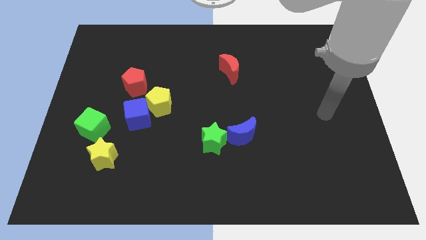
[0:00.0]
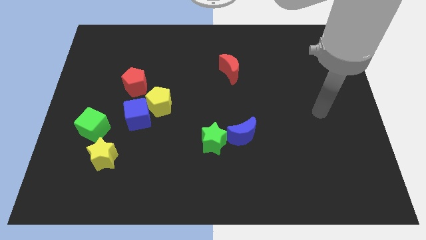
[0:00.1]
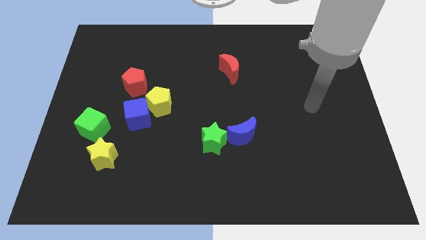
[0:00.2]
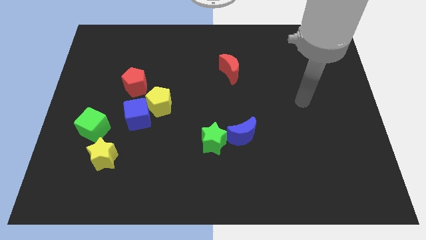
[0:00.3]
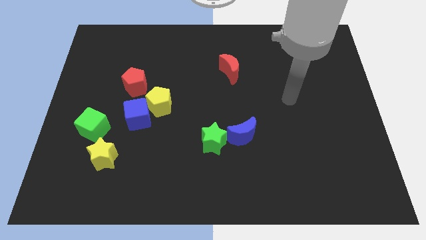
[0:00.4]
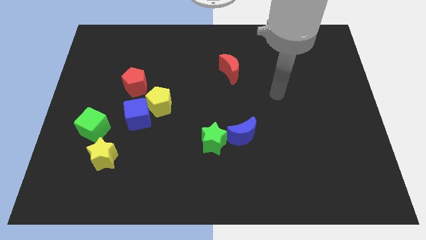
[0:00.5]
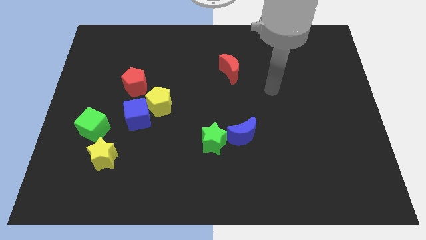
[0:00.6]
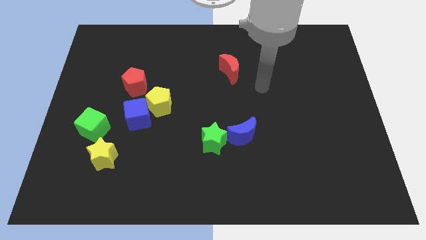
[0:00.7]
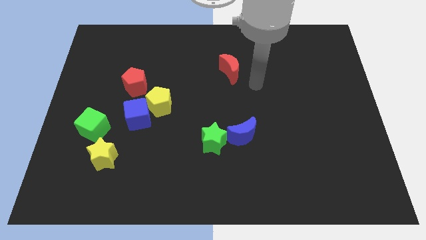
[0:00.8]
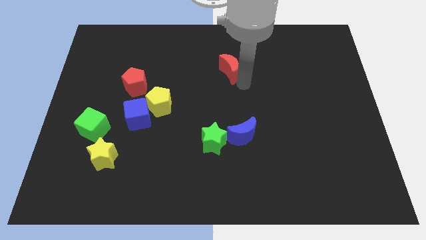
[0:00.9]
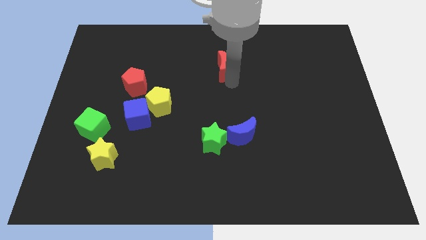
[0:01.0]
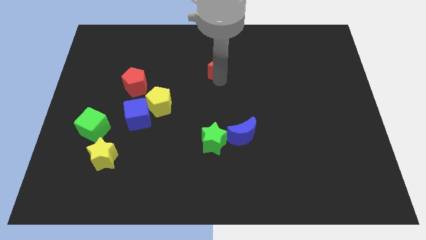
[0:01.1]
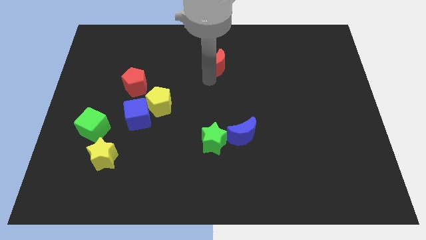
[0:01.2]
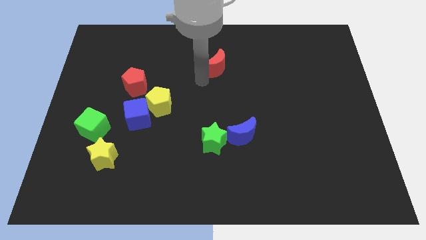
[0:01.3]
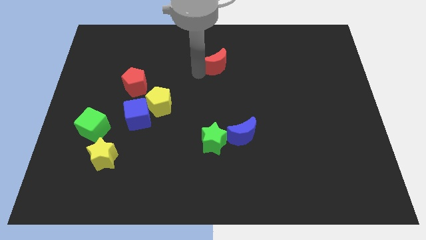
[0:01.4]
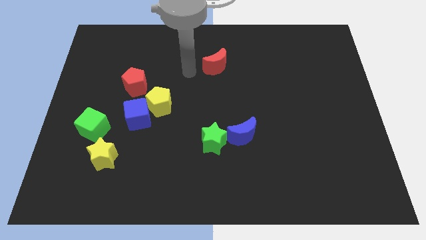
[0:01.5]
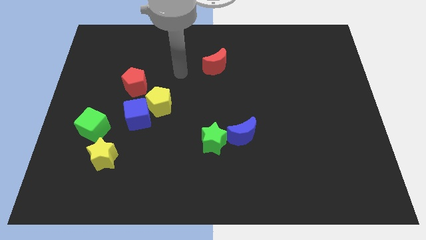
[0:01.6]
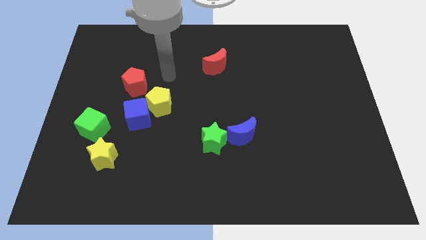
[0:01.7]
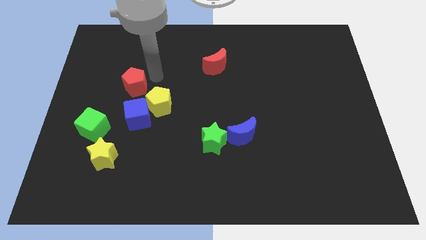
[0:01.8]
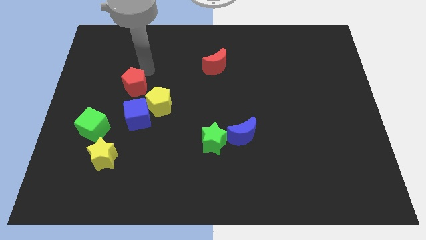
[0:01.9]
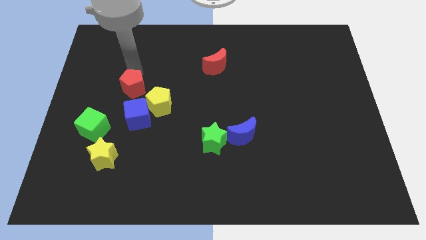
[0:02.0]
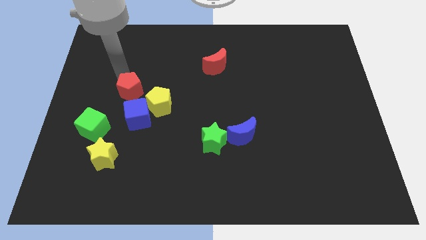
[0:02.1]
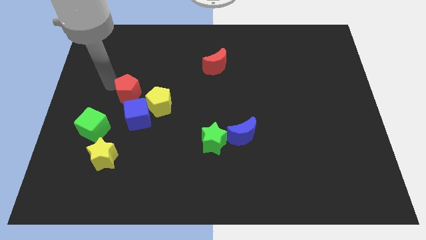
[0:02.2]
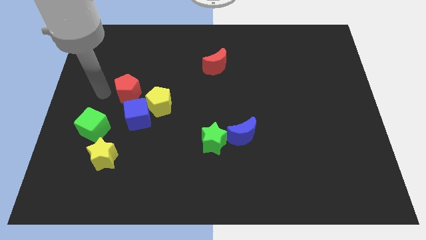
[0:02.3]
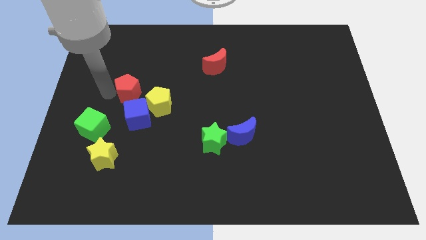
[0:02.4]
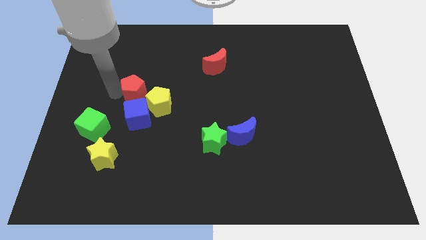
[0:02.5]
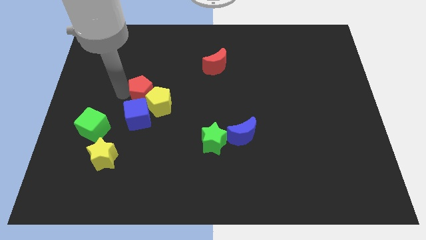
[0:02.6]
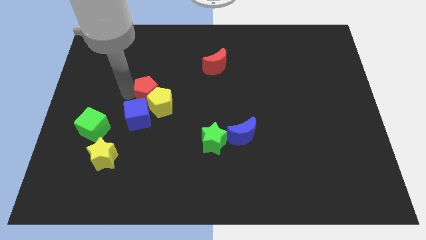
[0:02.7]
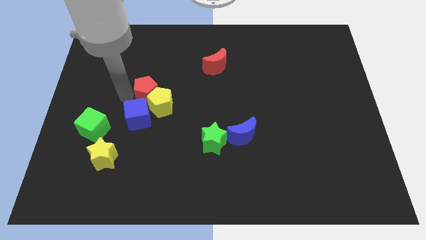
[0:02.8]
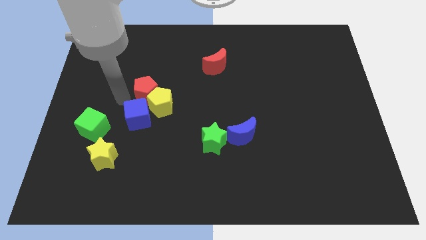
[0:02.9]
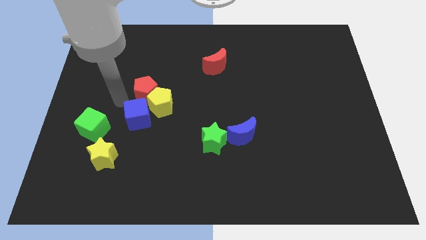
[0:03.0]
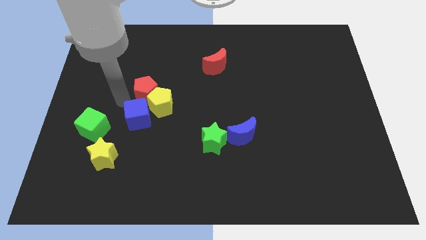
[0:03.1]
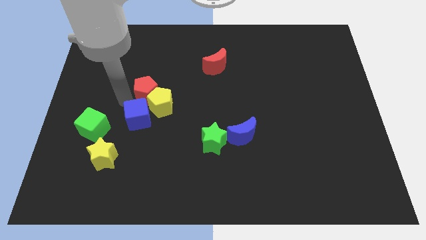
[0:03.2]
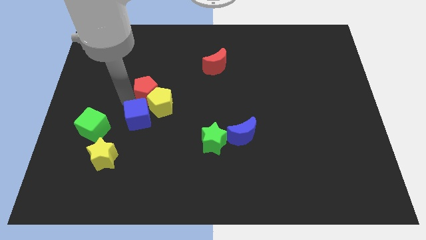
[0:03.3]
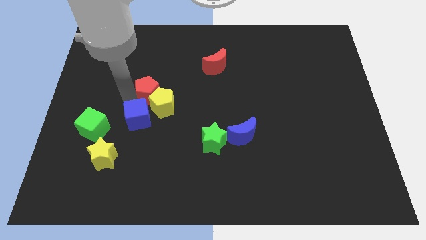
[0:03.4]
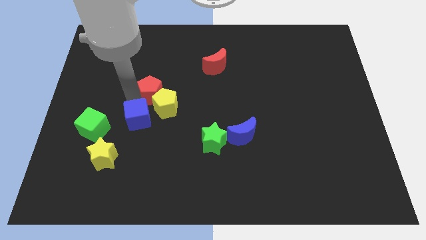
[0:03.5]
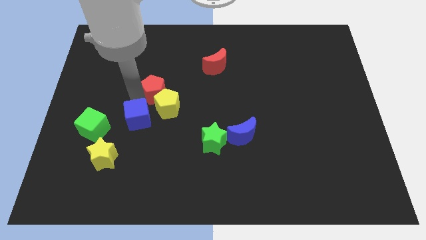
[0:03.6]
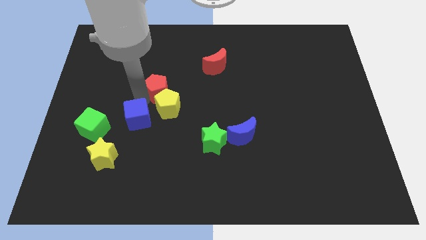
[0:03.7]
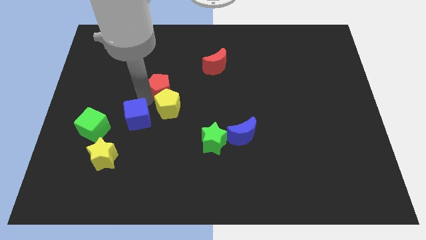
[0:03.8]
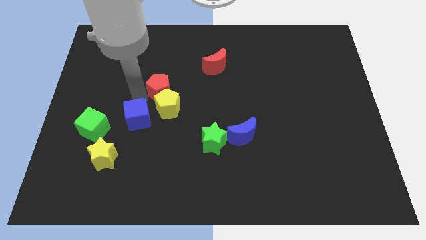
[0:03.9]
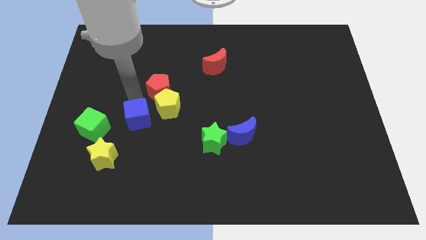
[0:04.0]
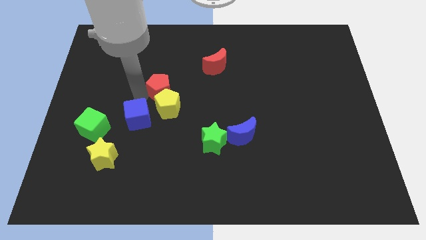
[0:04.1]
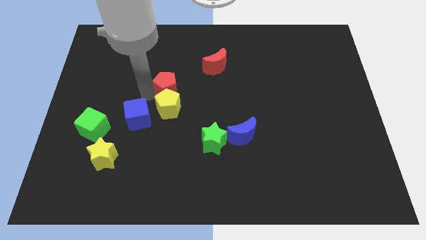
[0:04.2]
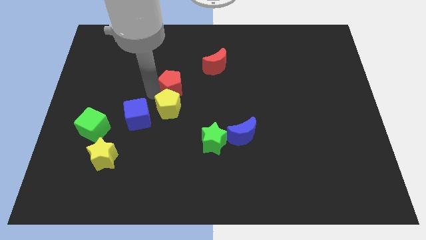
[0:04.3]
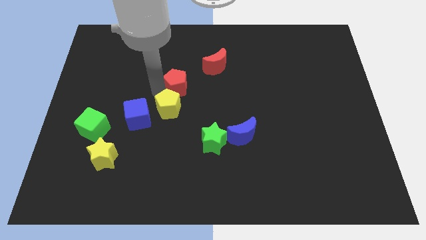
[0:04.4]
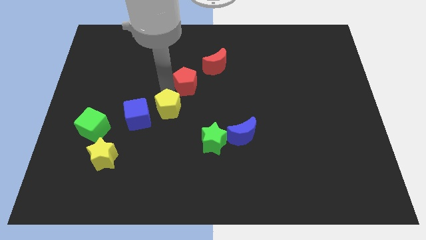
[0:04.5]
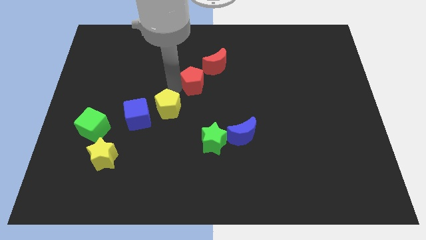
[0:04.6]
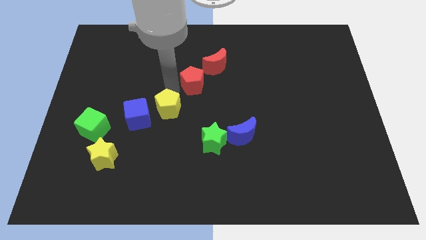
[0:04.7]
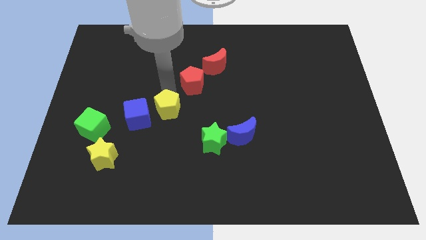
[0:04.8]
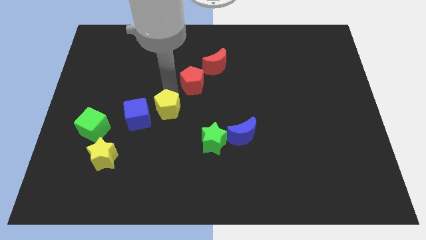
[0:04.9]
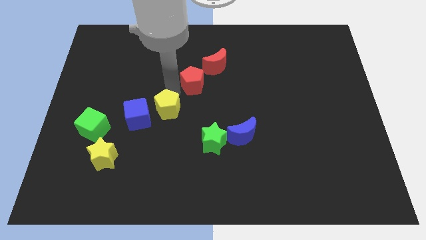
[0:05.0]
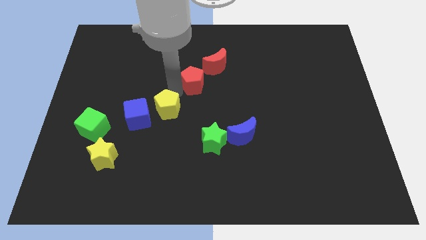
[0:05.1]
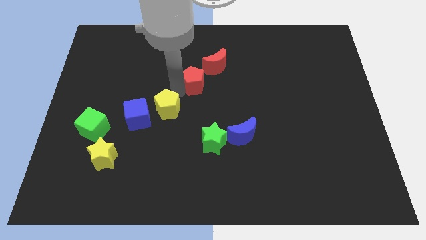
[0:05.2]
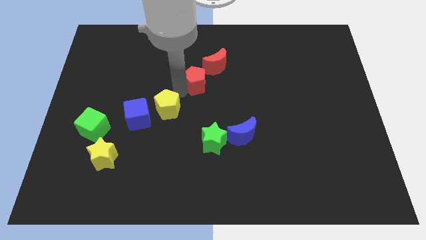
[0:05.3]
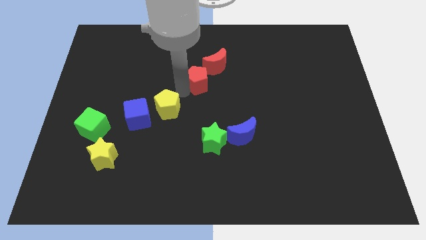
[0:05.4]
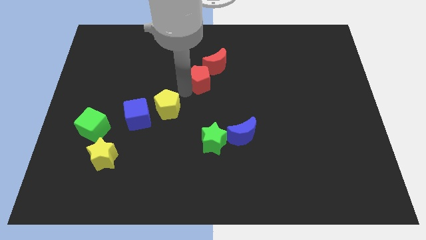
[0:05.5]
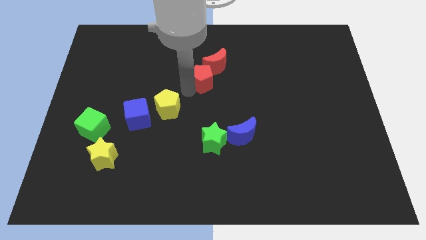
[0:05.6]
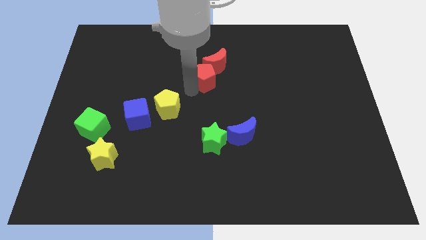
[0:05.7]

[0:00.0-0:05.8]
move the red pentagon towards the red moon

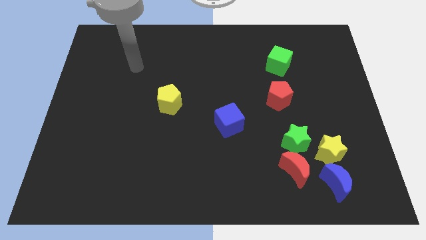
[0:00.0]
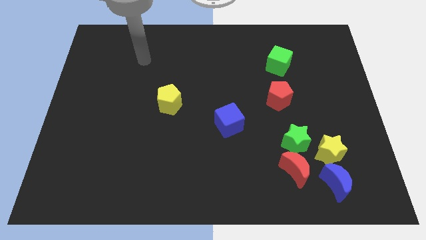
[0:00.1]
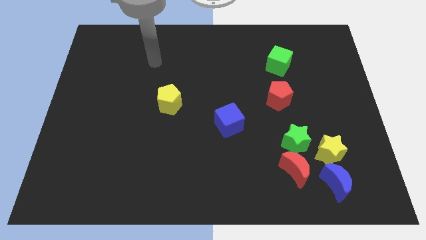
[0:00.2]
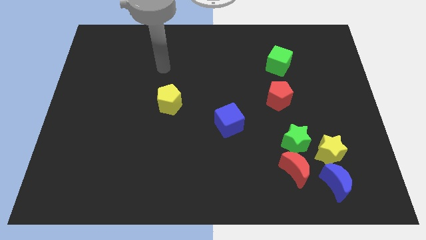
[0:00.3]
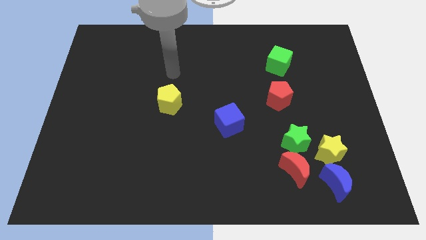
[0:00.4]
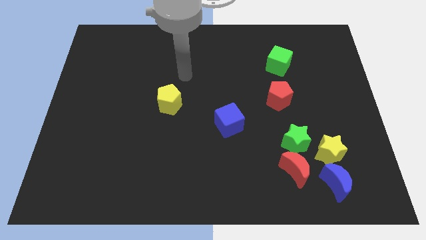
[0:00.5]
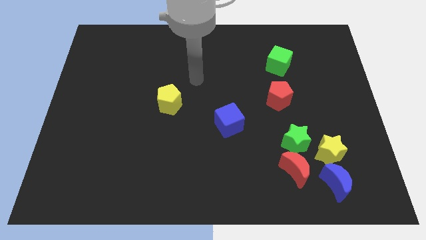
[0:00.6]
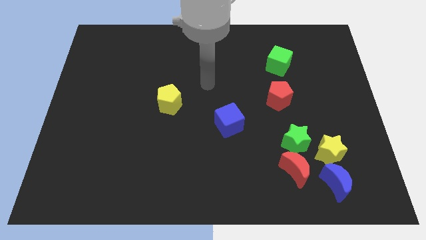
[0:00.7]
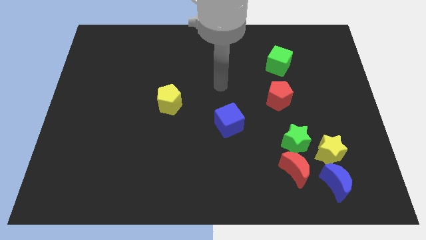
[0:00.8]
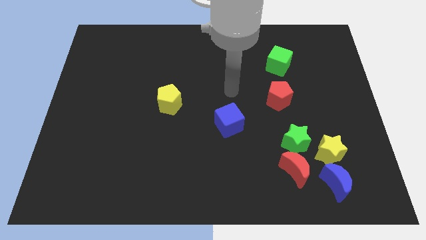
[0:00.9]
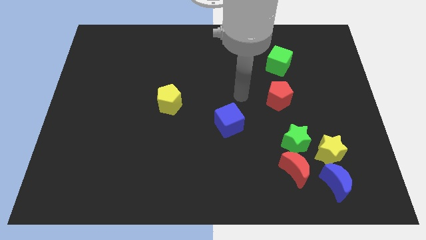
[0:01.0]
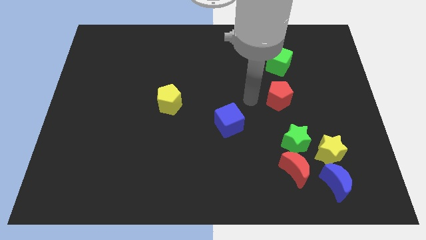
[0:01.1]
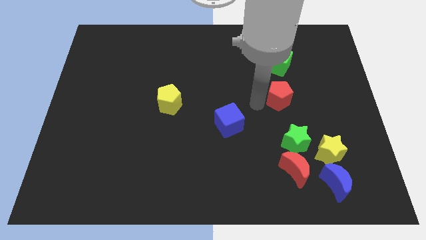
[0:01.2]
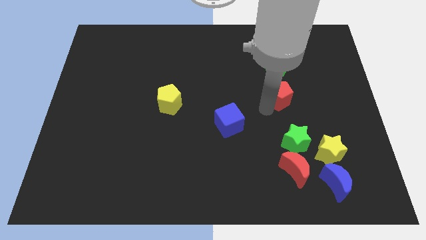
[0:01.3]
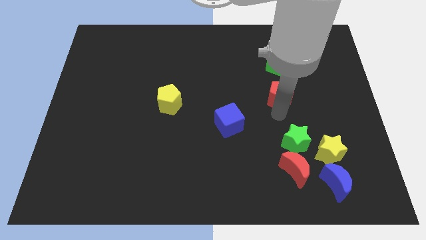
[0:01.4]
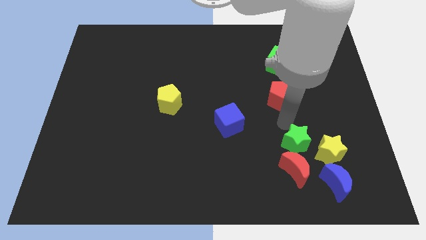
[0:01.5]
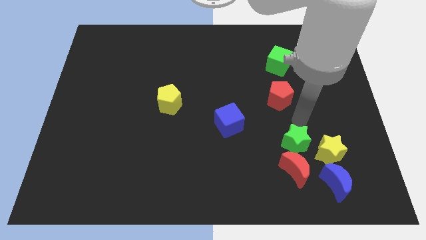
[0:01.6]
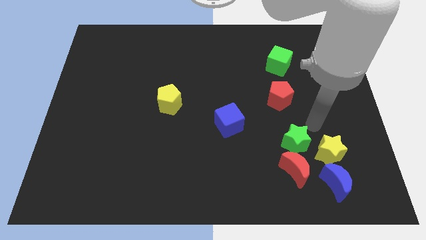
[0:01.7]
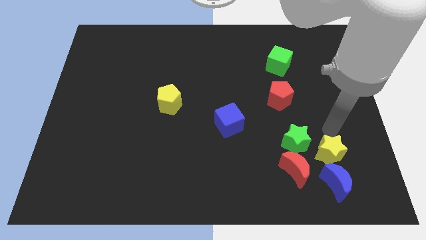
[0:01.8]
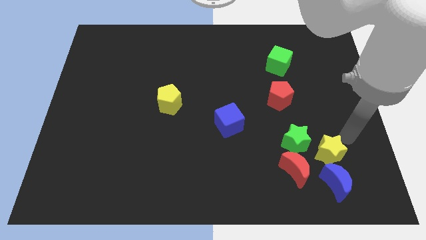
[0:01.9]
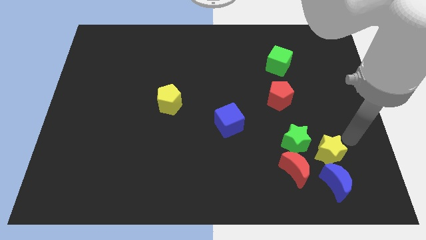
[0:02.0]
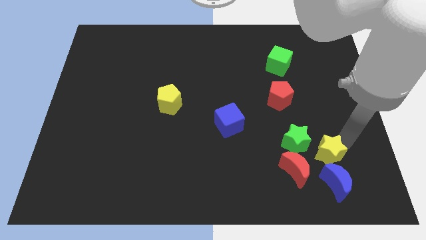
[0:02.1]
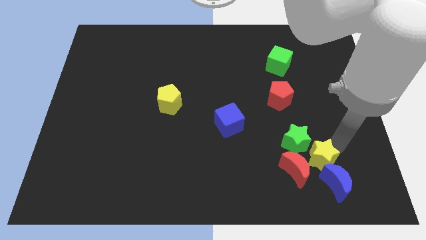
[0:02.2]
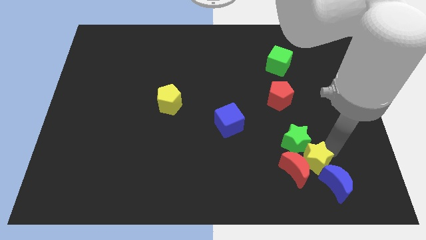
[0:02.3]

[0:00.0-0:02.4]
move the yellow star to the red moon
